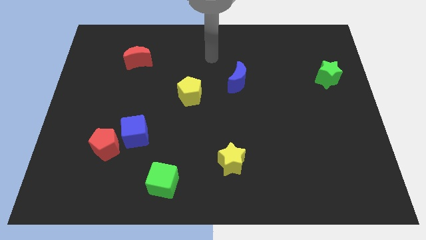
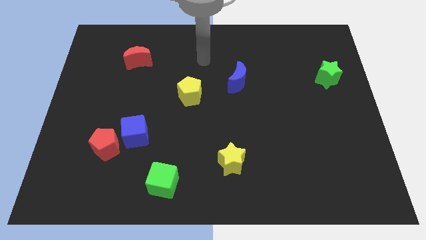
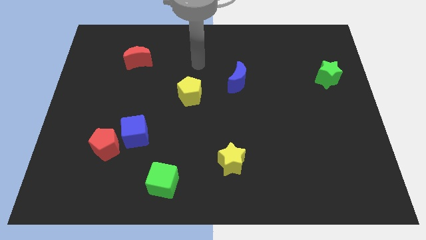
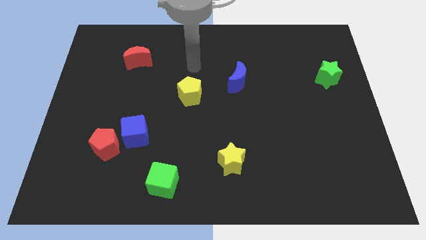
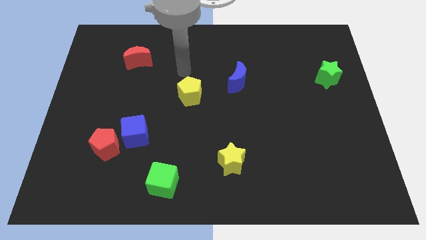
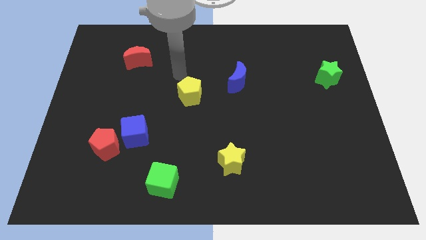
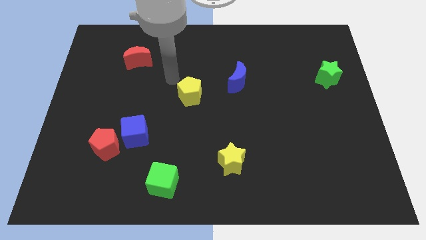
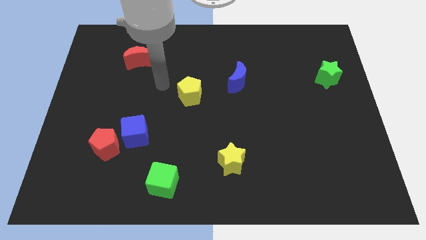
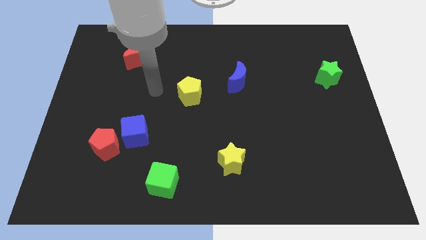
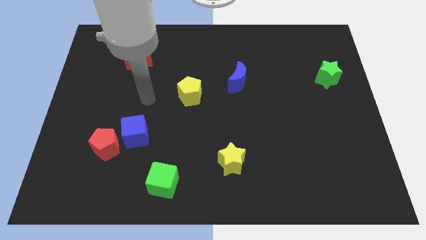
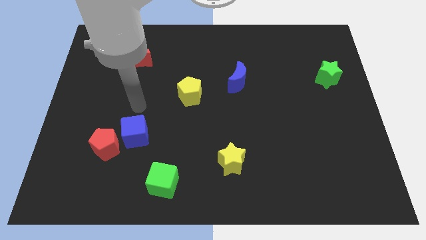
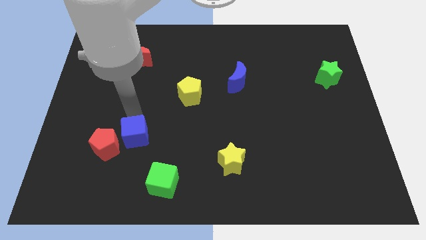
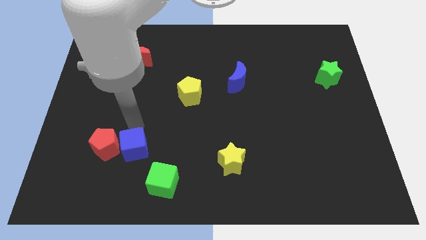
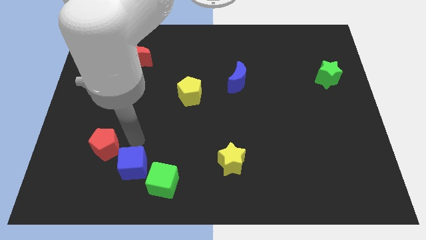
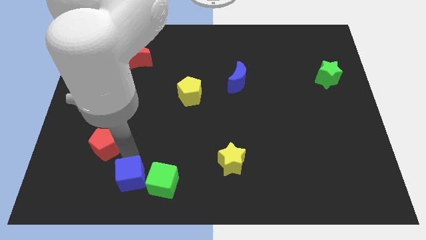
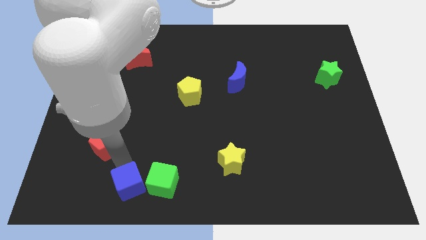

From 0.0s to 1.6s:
separate the red pentagon from the blue cube

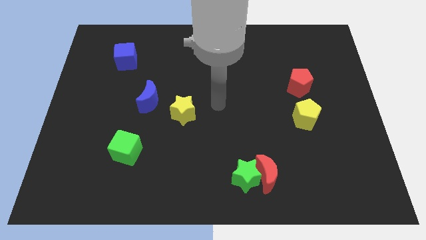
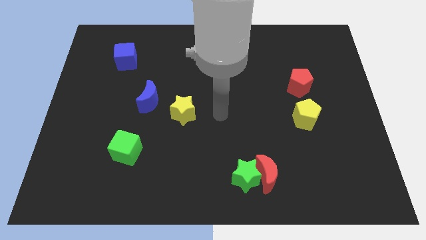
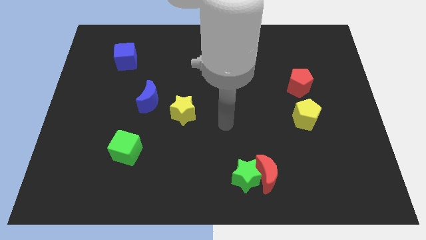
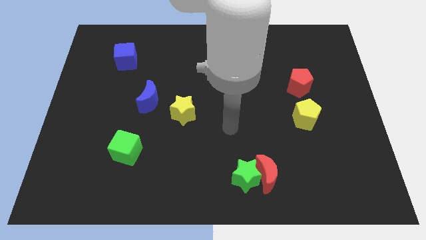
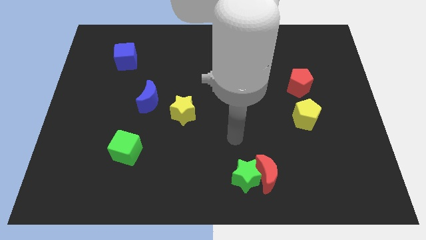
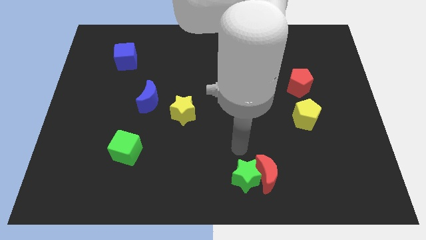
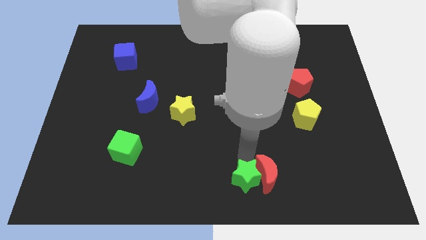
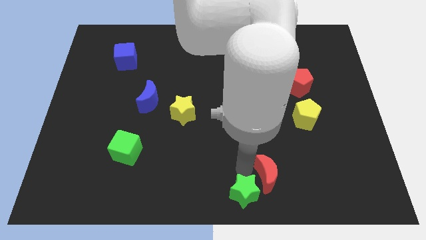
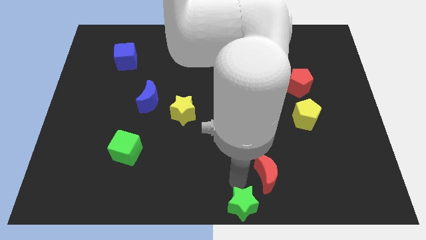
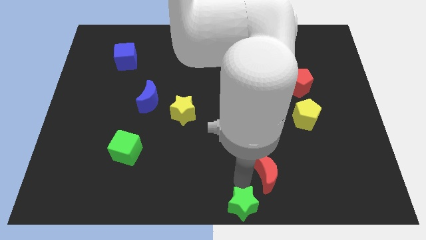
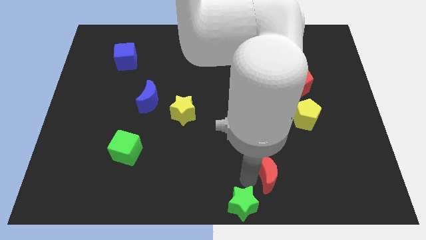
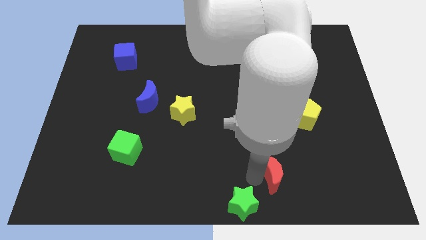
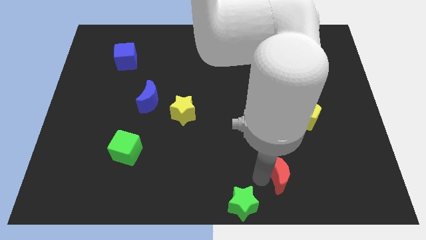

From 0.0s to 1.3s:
move the red moon away from the green star

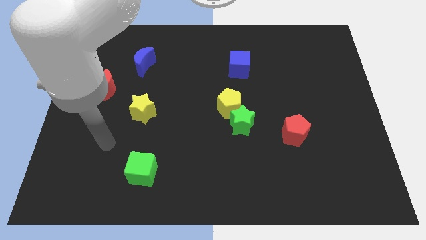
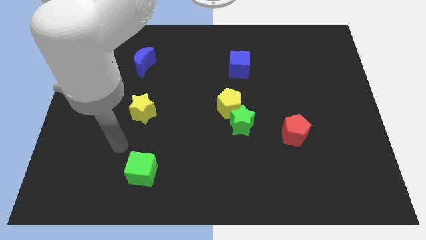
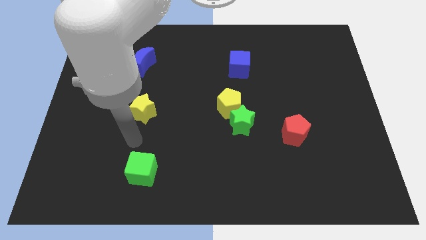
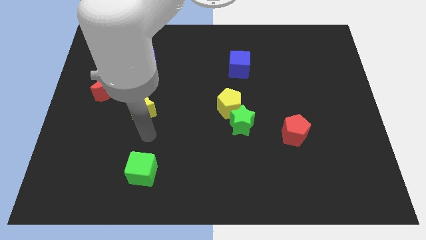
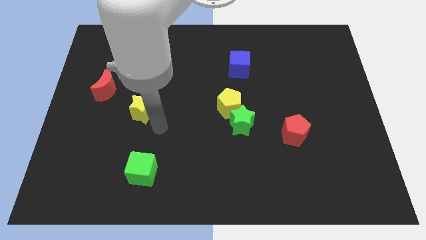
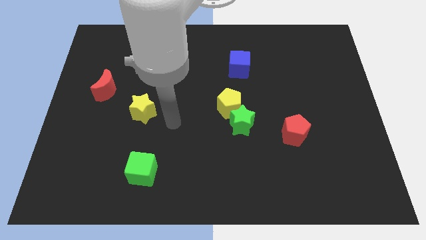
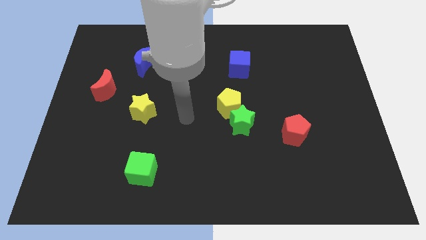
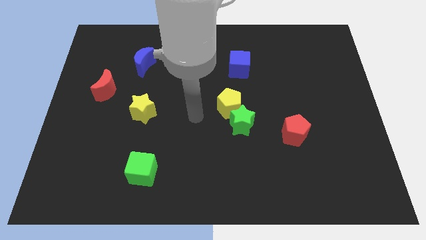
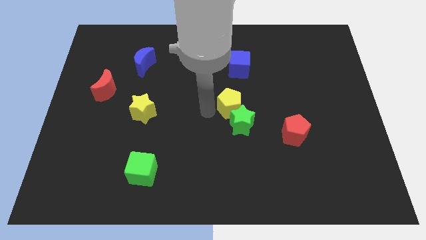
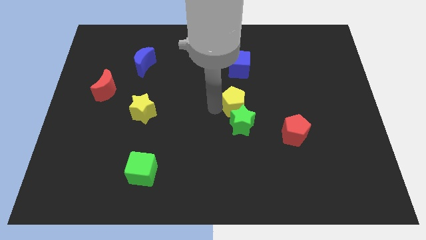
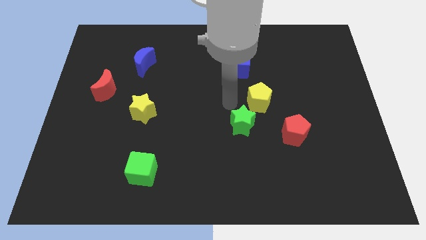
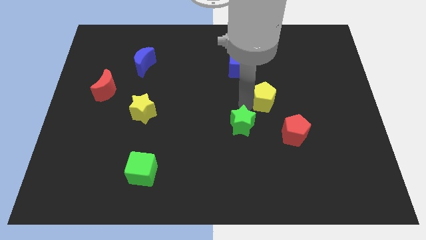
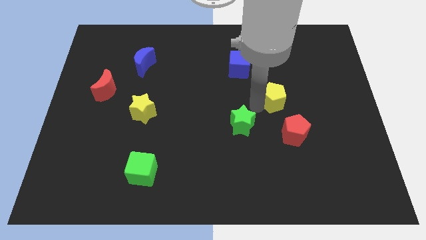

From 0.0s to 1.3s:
separate the green star from the yellow pentagon

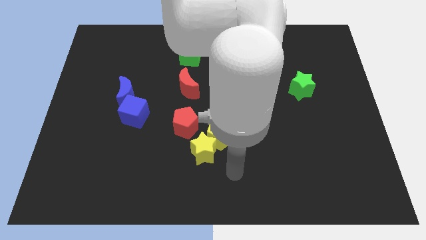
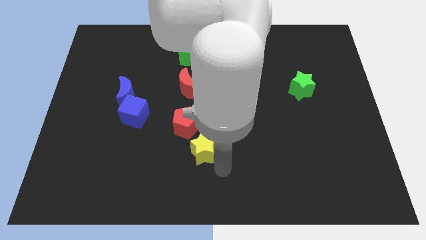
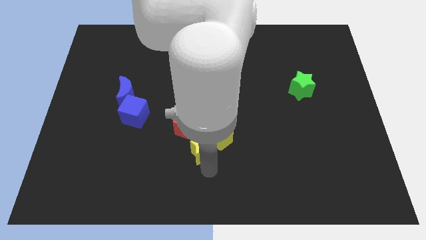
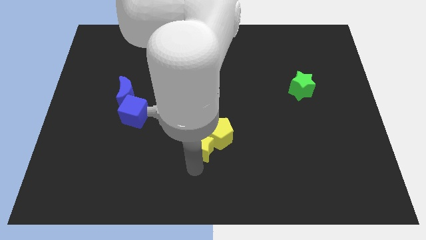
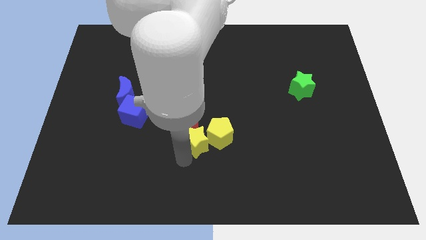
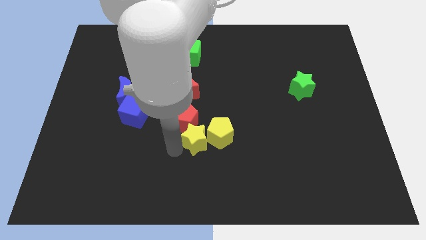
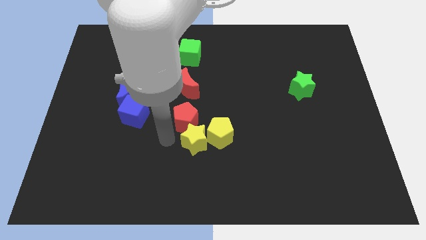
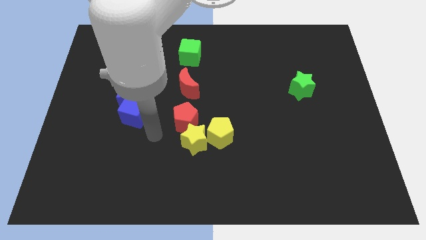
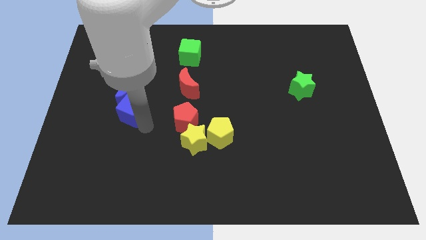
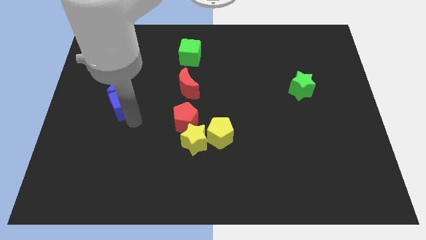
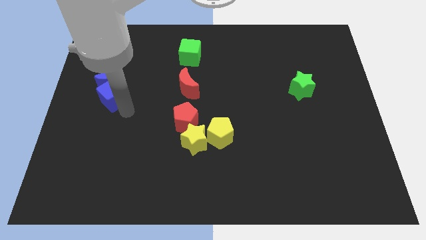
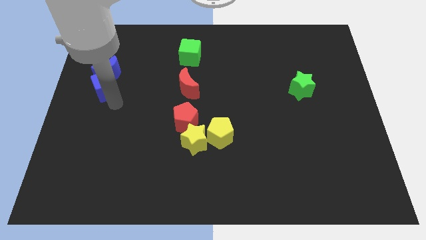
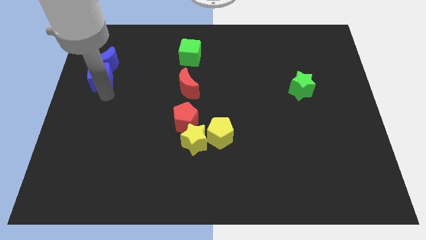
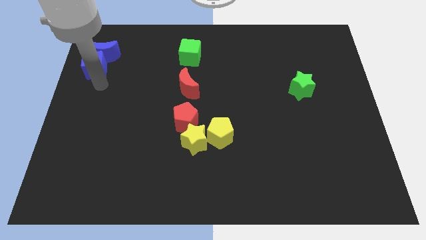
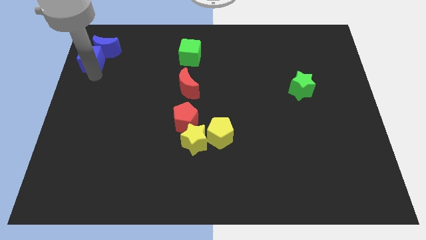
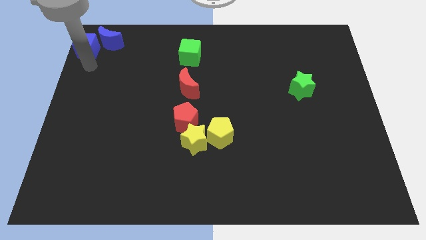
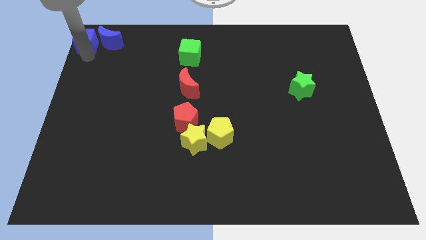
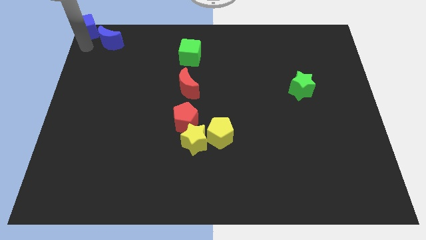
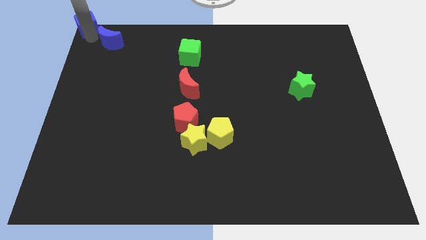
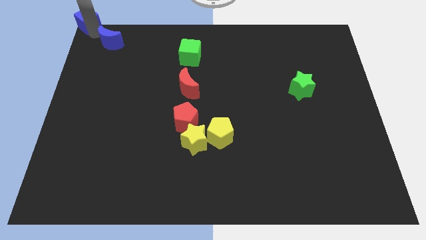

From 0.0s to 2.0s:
pull the blue moon apart from the blue cube

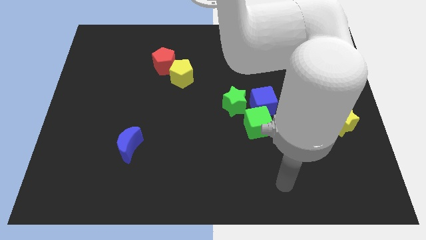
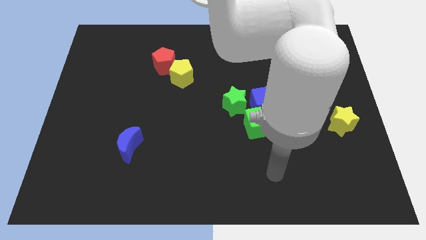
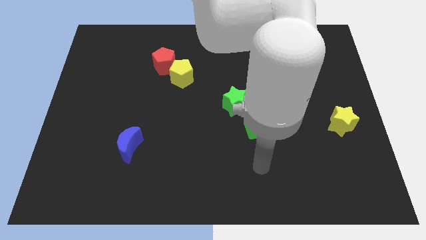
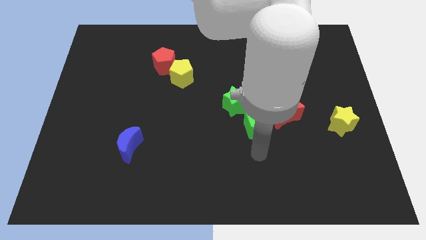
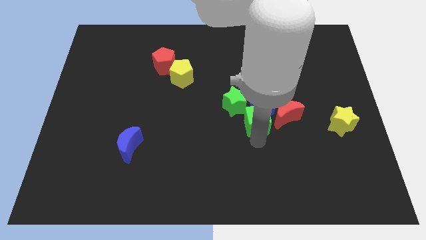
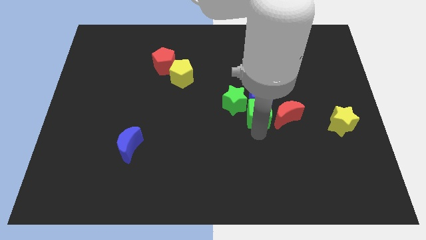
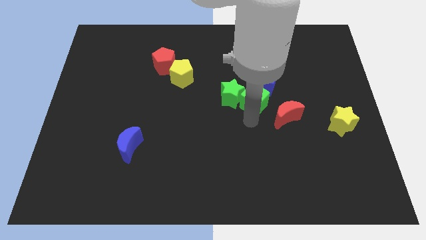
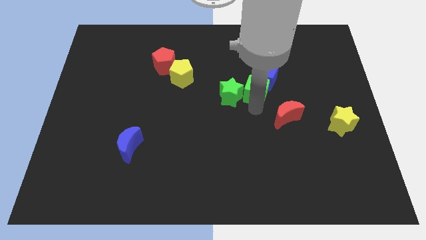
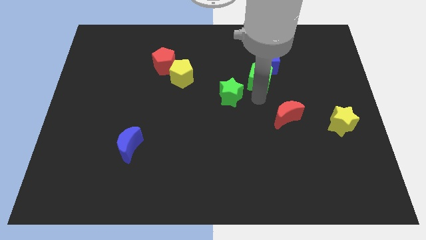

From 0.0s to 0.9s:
separate the blue cube from the group of blocks

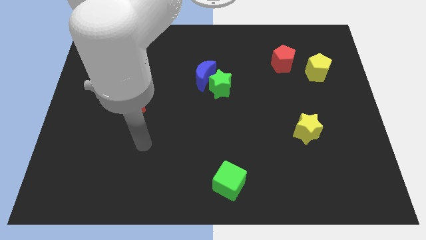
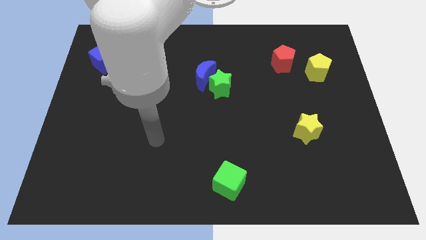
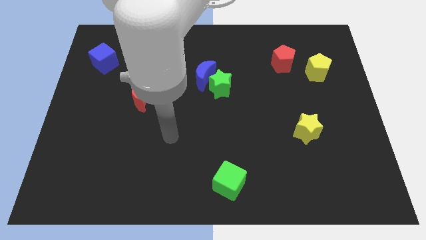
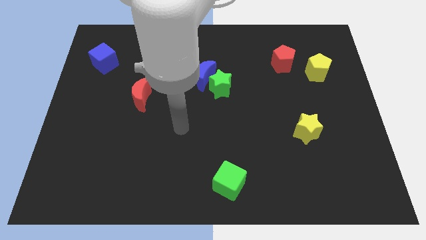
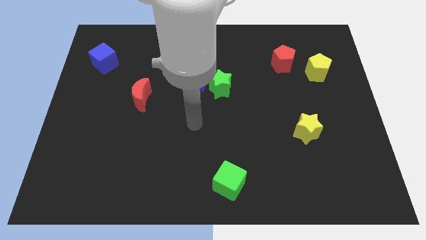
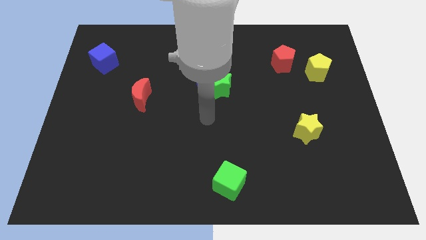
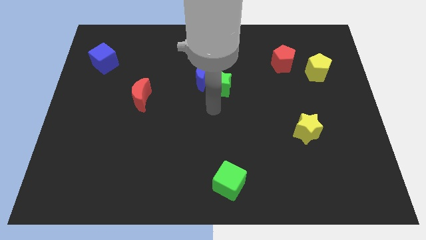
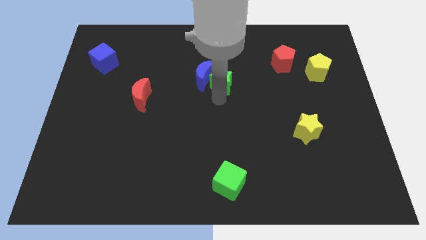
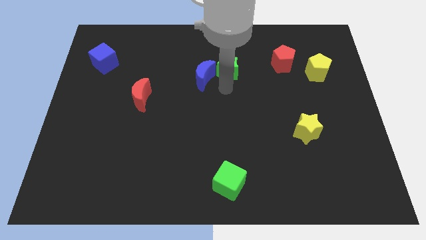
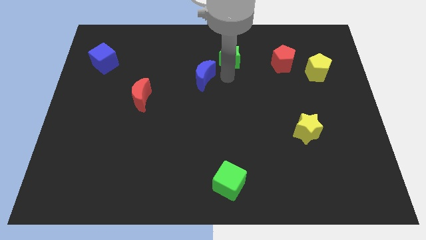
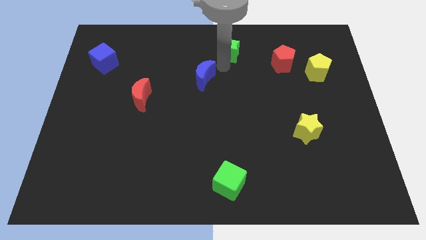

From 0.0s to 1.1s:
separate the blue moon from the green star

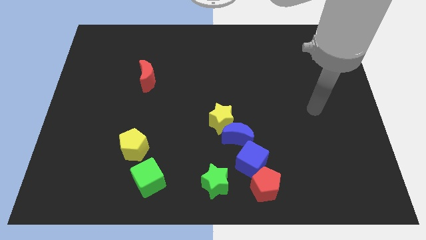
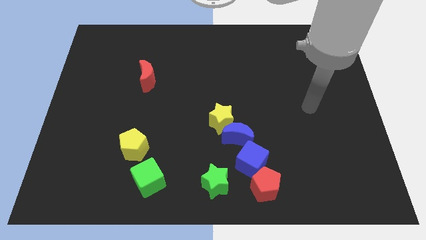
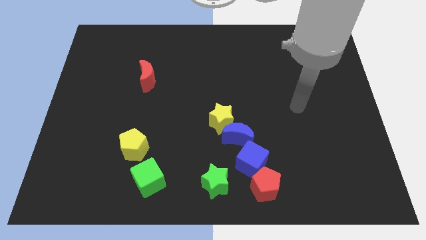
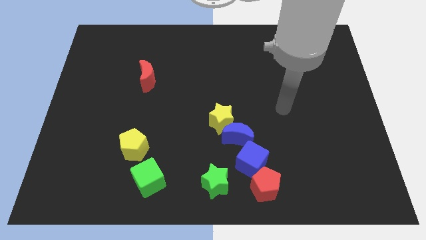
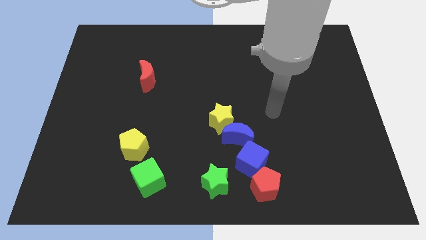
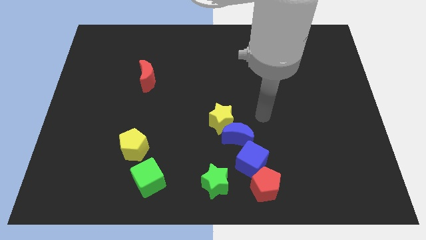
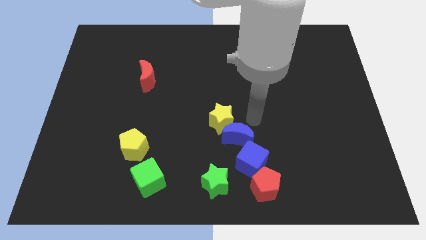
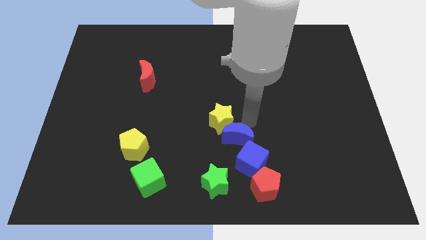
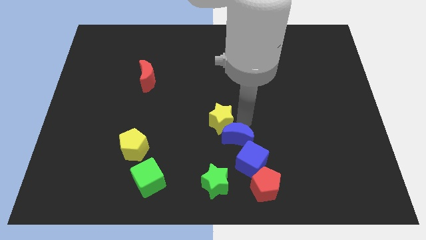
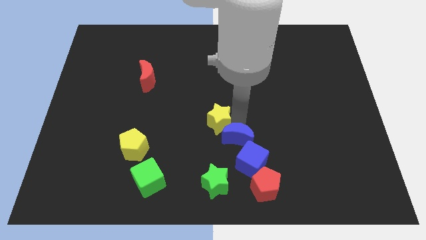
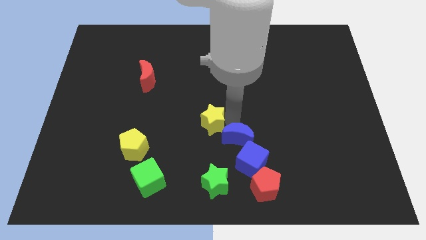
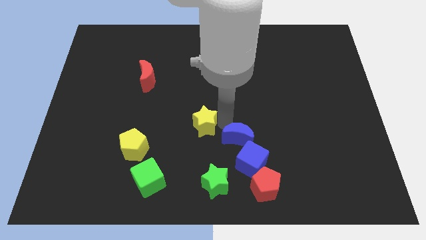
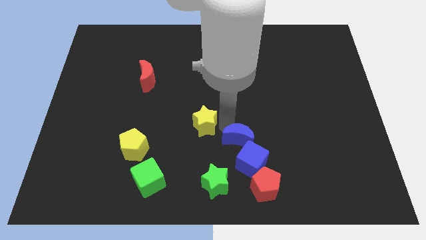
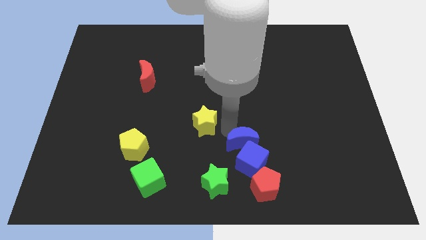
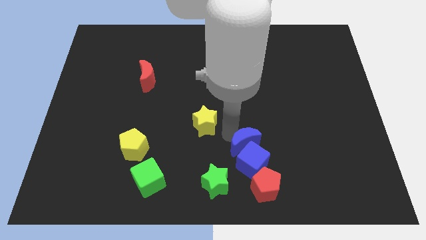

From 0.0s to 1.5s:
pull the yellow star apart from the blue moon
